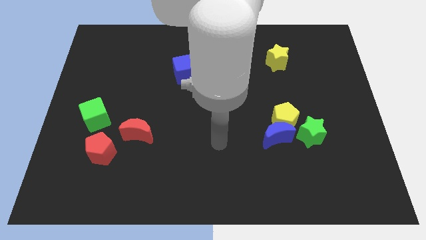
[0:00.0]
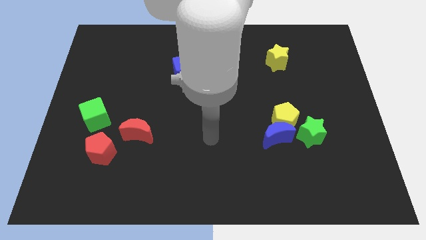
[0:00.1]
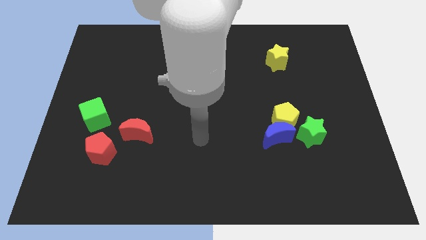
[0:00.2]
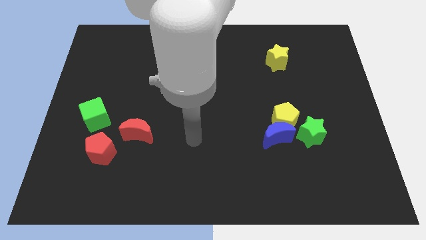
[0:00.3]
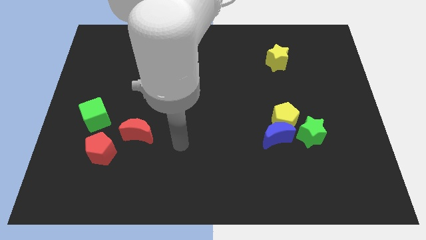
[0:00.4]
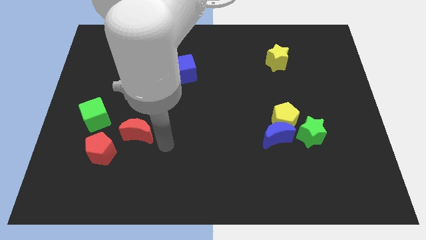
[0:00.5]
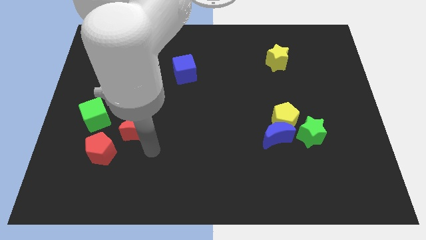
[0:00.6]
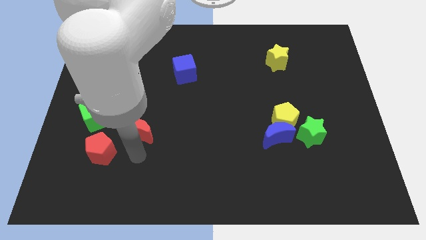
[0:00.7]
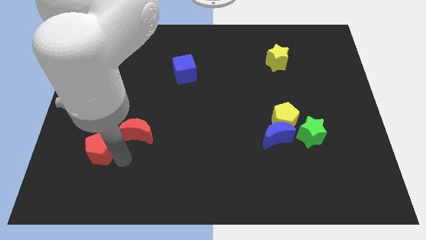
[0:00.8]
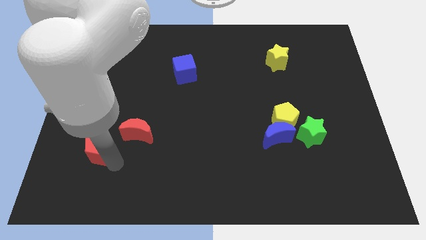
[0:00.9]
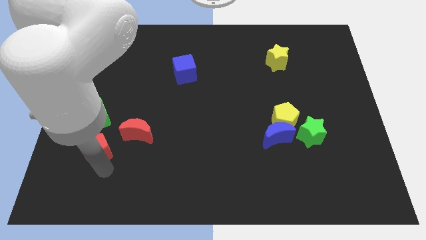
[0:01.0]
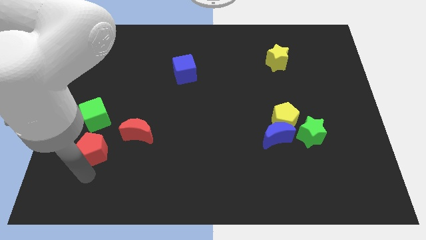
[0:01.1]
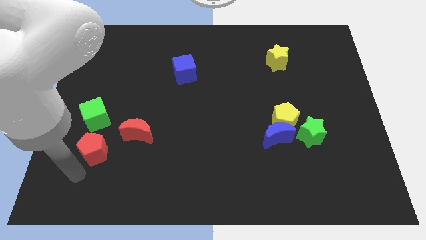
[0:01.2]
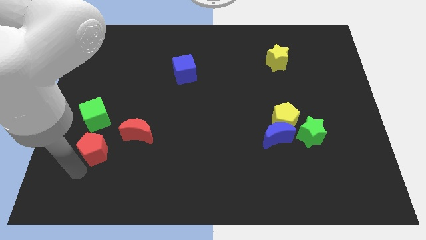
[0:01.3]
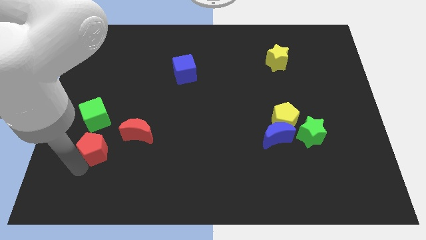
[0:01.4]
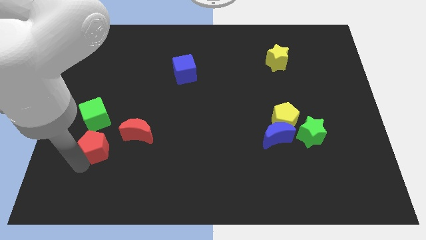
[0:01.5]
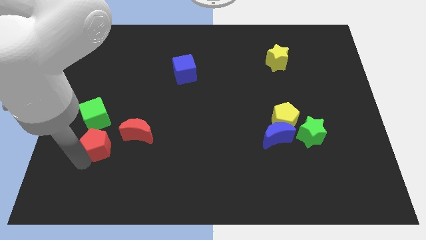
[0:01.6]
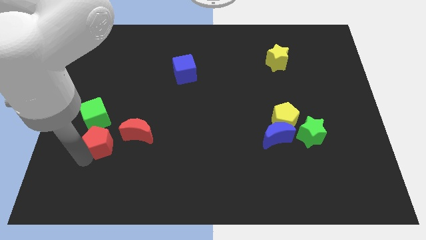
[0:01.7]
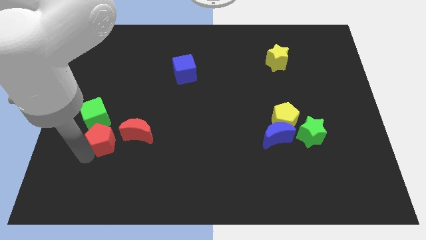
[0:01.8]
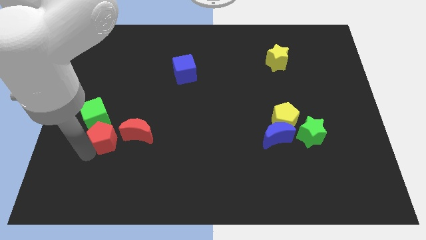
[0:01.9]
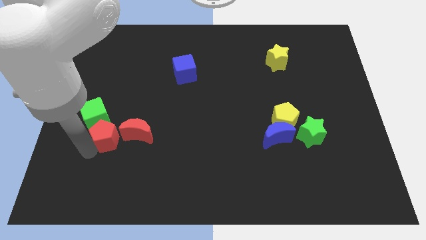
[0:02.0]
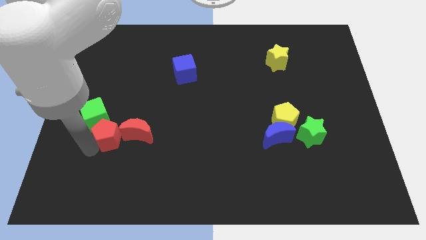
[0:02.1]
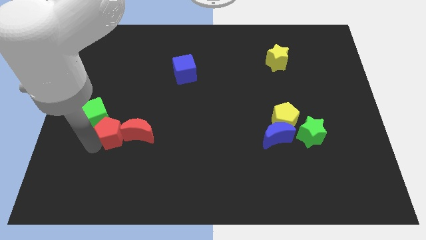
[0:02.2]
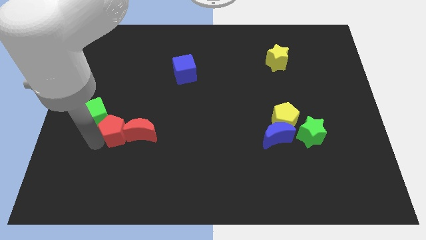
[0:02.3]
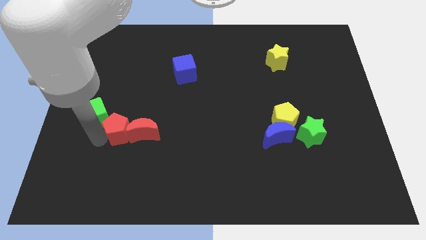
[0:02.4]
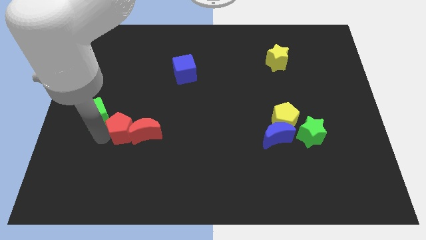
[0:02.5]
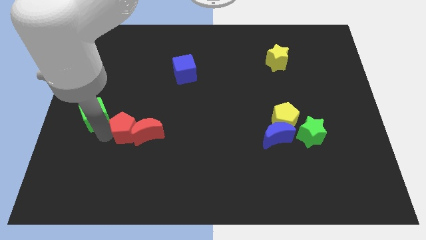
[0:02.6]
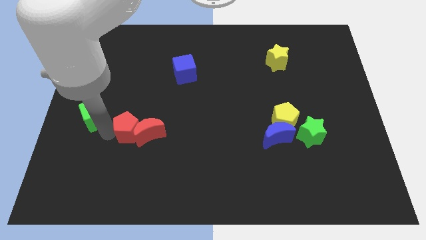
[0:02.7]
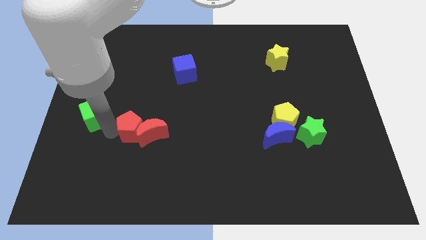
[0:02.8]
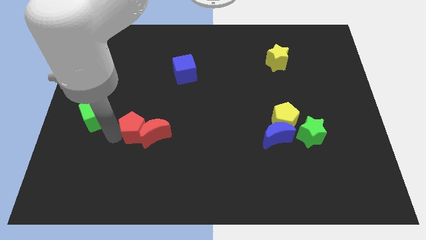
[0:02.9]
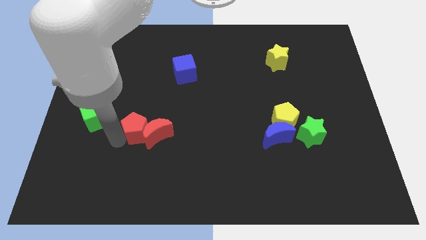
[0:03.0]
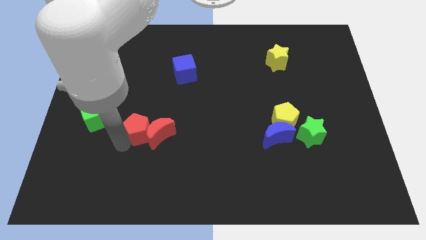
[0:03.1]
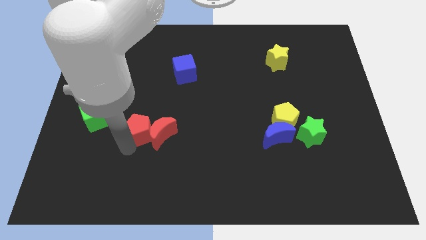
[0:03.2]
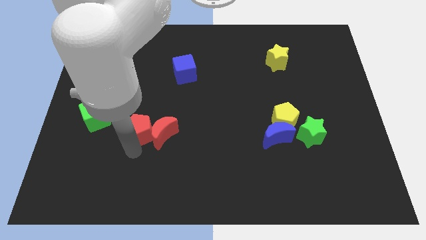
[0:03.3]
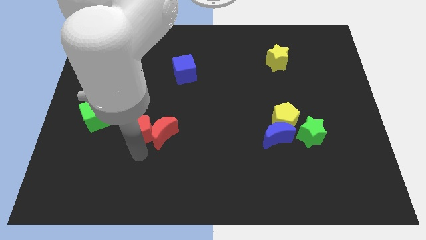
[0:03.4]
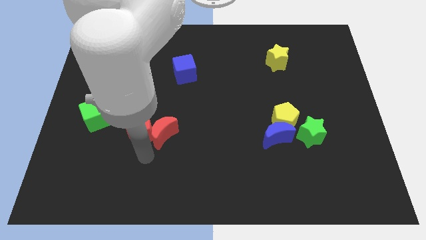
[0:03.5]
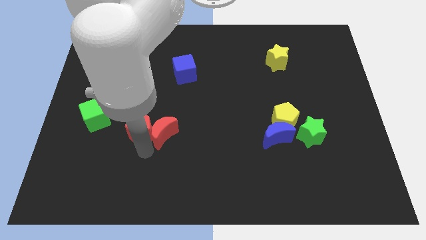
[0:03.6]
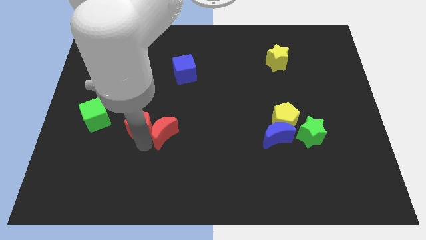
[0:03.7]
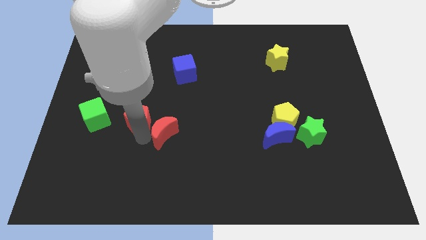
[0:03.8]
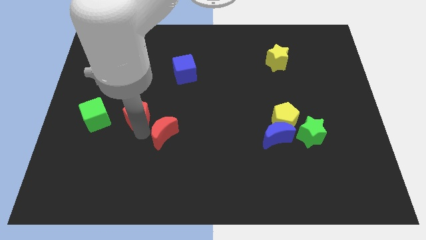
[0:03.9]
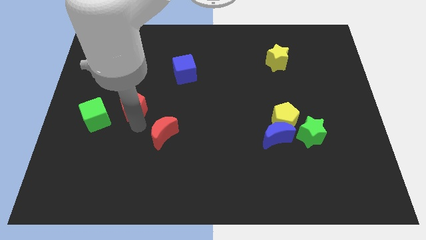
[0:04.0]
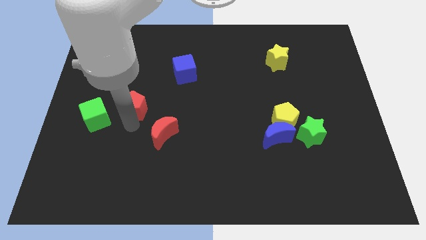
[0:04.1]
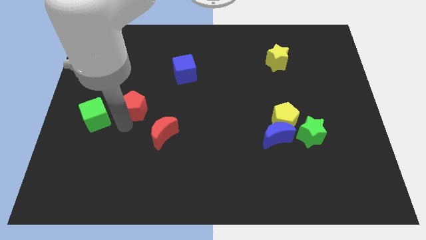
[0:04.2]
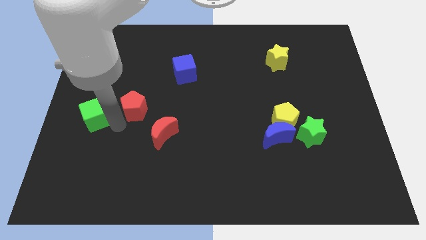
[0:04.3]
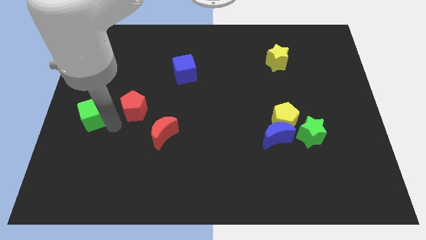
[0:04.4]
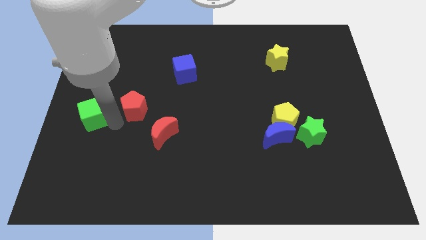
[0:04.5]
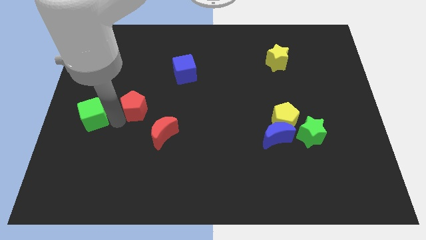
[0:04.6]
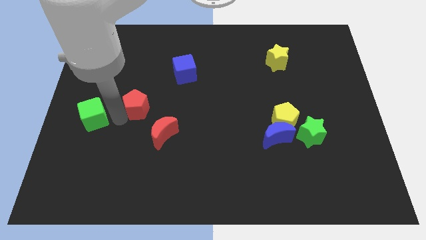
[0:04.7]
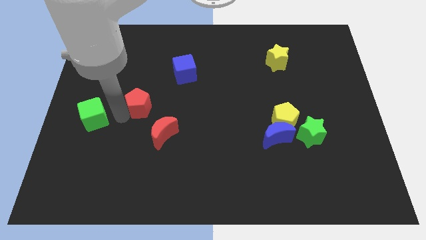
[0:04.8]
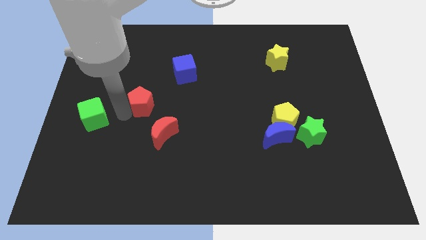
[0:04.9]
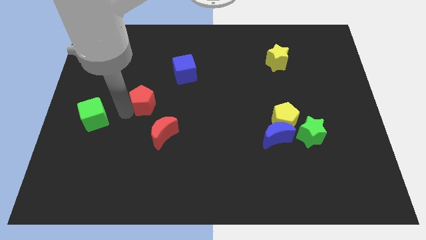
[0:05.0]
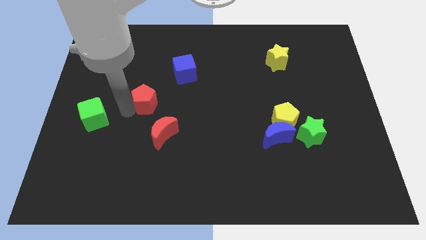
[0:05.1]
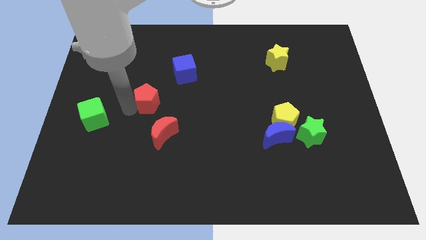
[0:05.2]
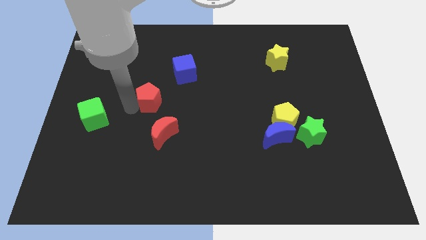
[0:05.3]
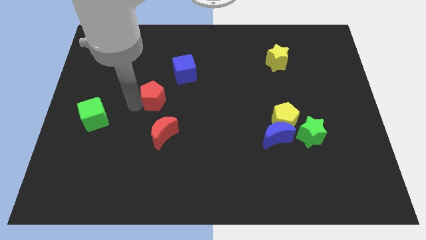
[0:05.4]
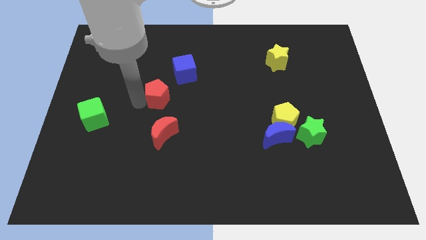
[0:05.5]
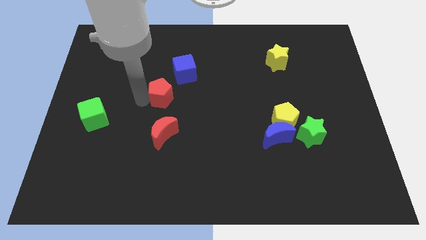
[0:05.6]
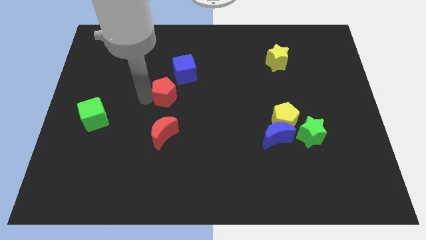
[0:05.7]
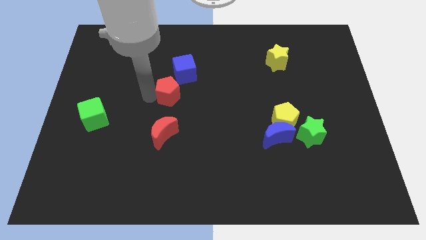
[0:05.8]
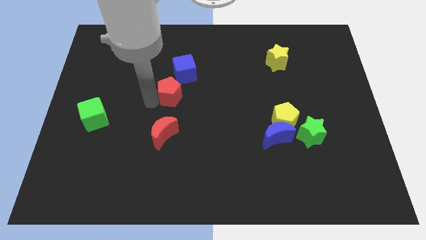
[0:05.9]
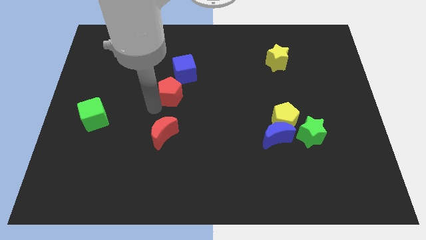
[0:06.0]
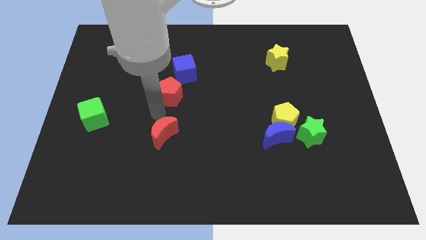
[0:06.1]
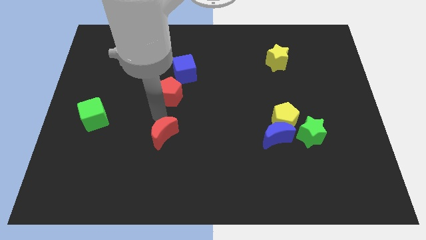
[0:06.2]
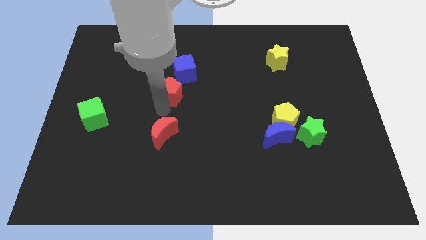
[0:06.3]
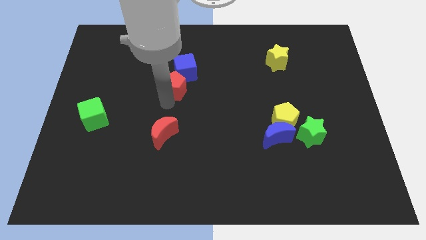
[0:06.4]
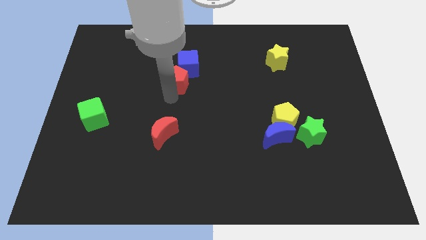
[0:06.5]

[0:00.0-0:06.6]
slide the red pentagon close to the blue cube
